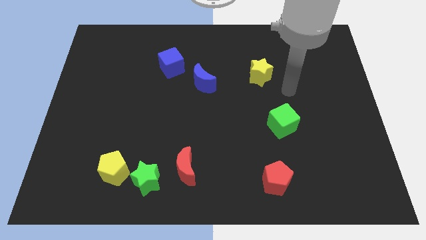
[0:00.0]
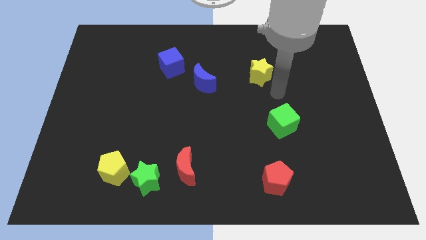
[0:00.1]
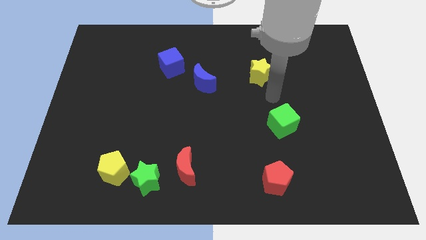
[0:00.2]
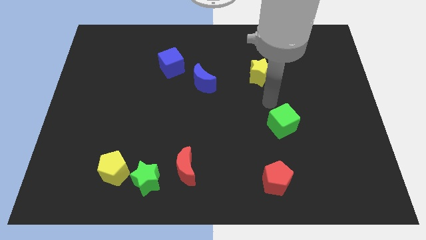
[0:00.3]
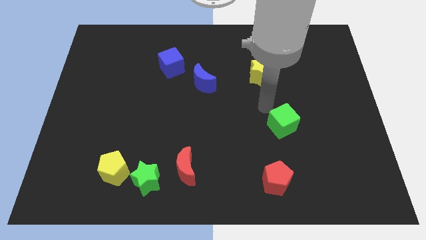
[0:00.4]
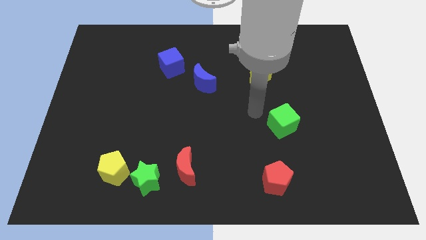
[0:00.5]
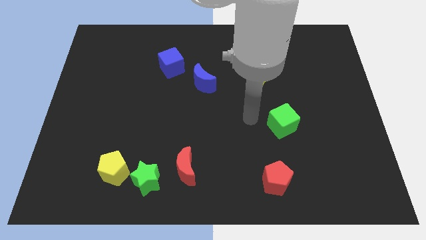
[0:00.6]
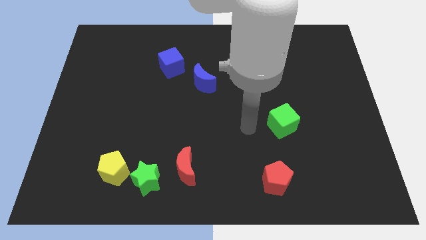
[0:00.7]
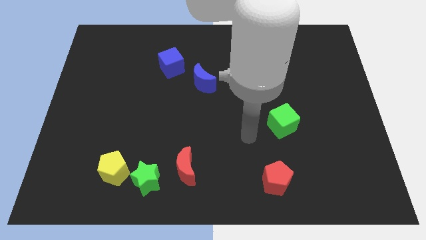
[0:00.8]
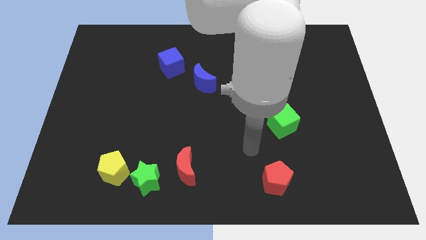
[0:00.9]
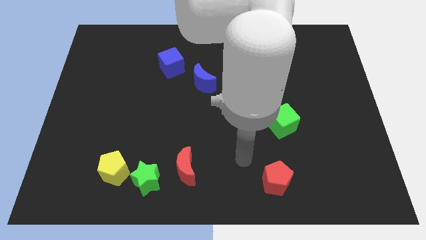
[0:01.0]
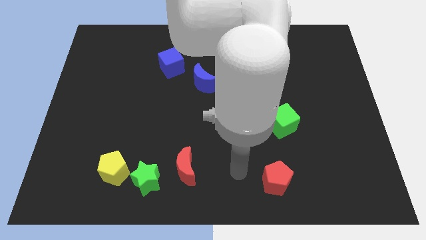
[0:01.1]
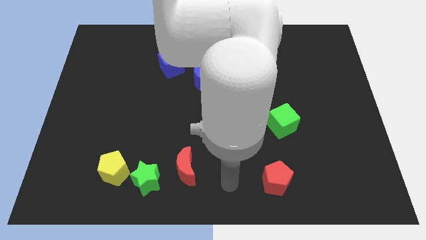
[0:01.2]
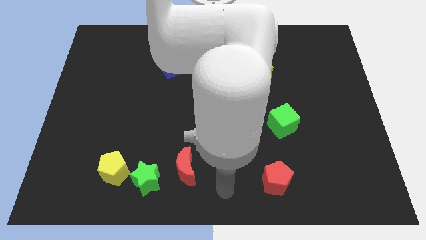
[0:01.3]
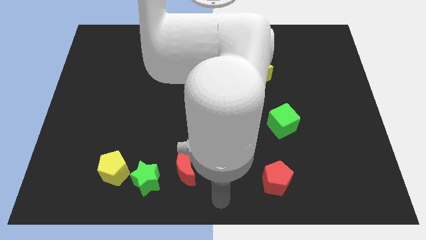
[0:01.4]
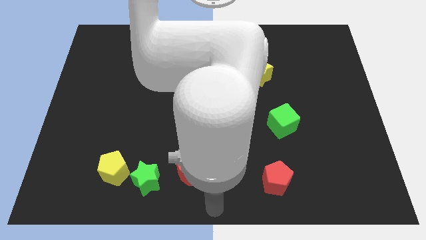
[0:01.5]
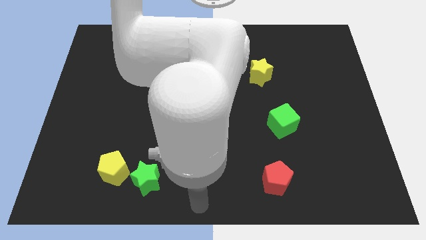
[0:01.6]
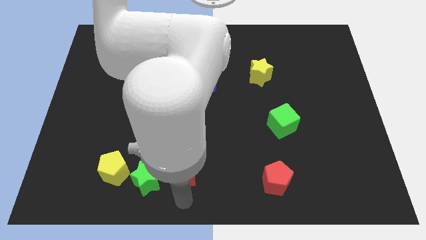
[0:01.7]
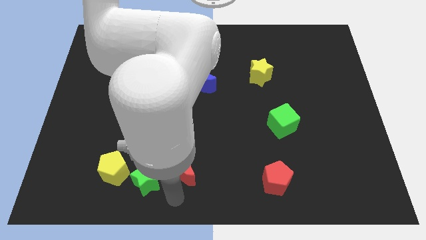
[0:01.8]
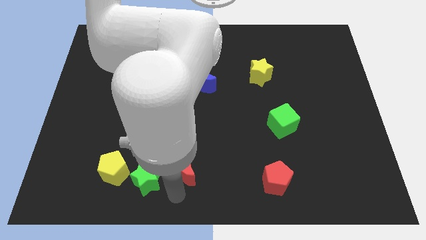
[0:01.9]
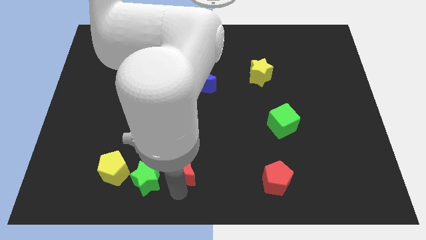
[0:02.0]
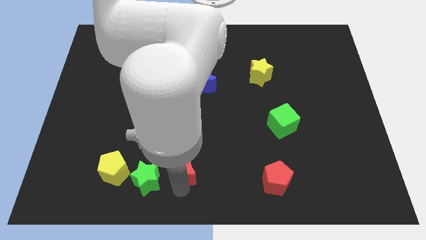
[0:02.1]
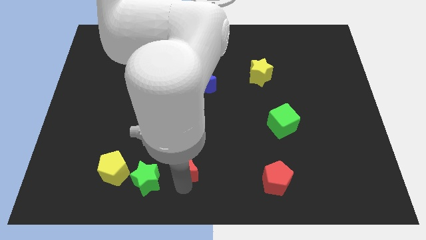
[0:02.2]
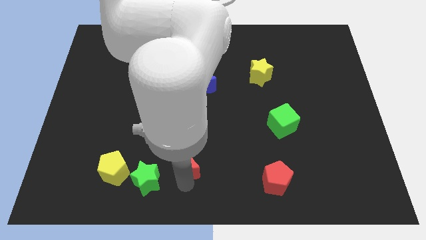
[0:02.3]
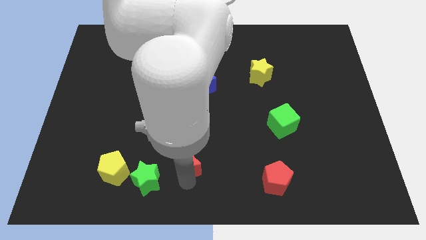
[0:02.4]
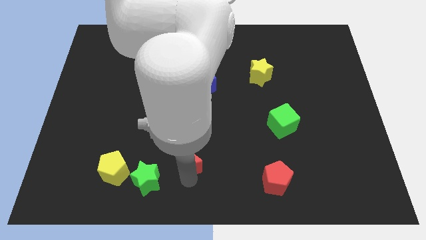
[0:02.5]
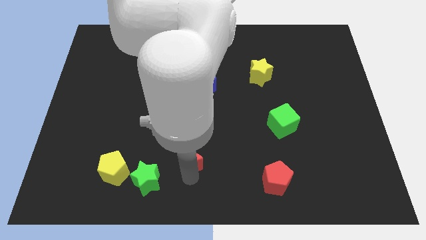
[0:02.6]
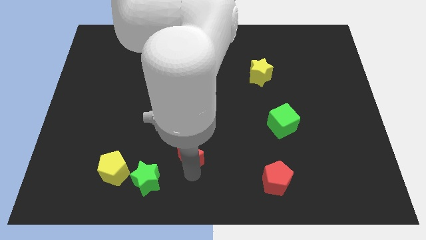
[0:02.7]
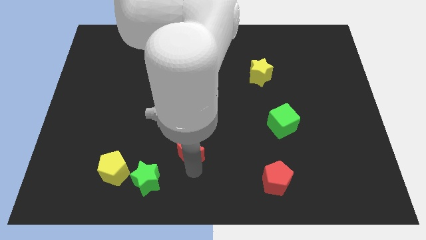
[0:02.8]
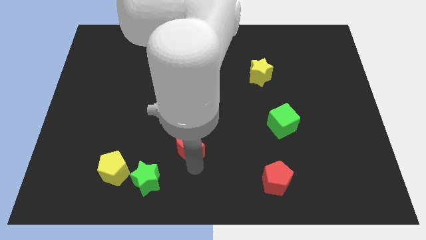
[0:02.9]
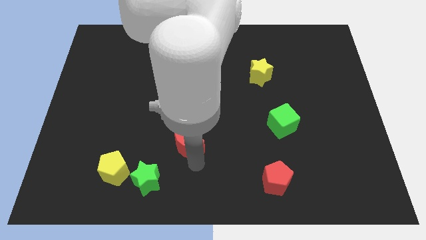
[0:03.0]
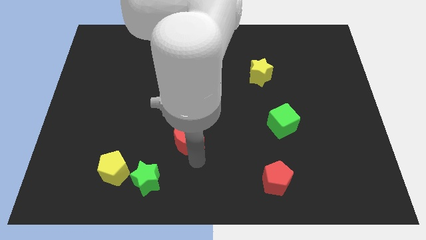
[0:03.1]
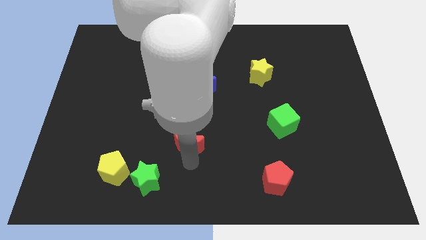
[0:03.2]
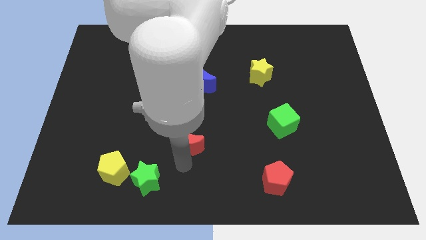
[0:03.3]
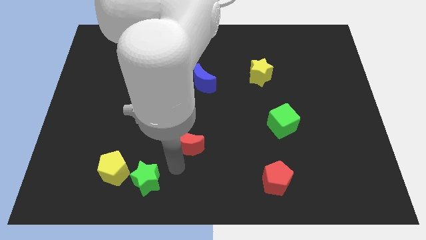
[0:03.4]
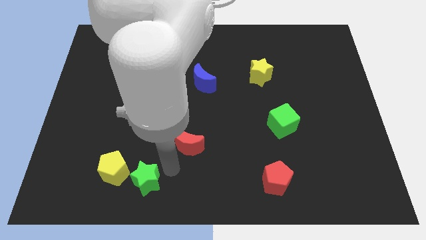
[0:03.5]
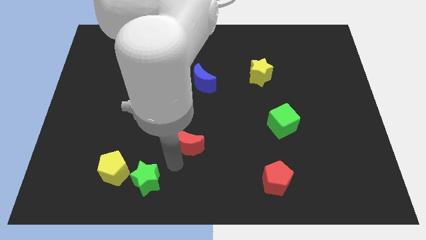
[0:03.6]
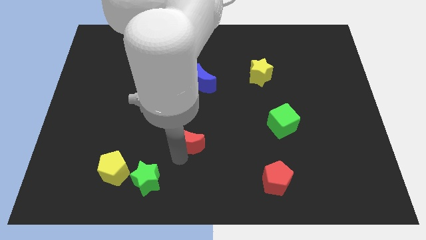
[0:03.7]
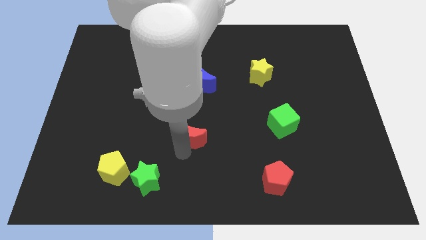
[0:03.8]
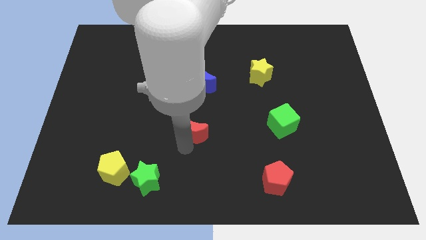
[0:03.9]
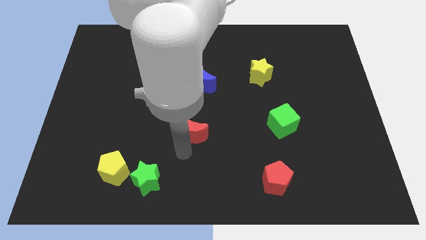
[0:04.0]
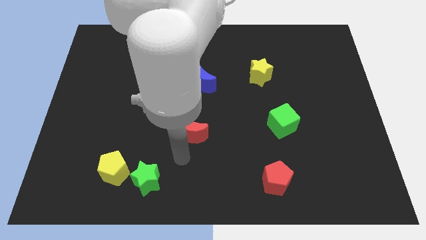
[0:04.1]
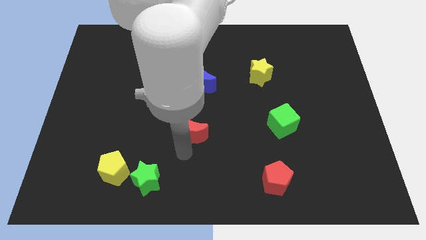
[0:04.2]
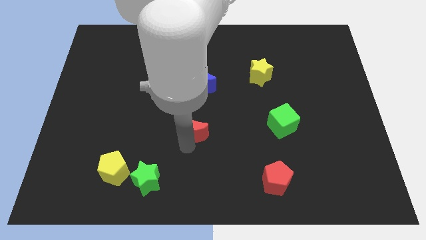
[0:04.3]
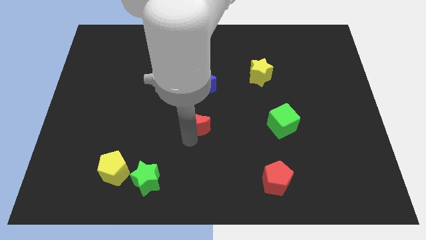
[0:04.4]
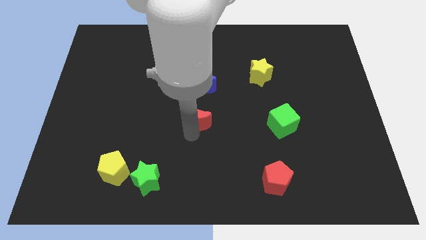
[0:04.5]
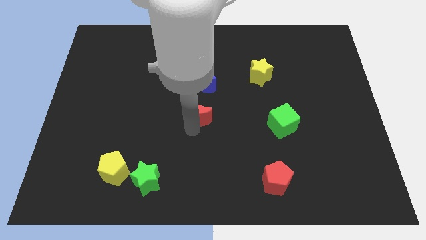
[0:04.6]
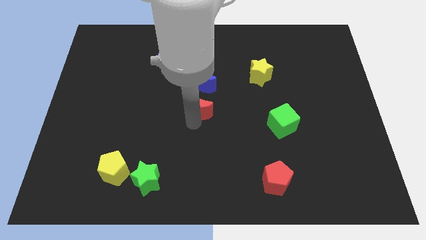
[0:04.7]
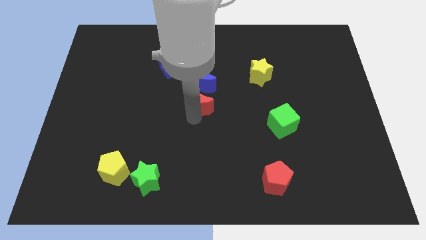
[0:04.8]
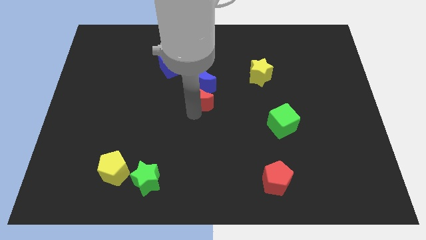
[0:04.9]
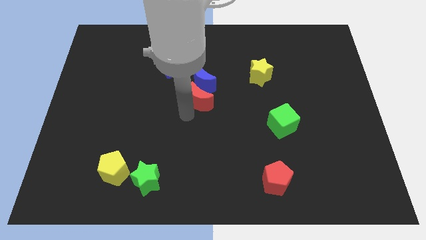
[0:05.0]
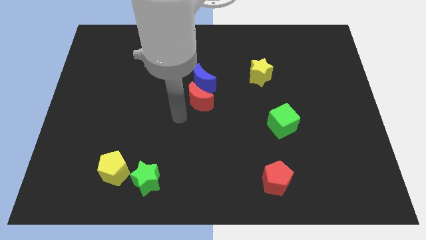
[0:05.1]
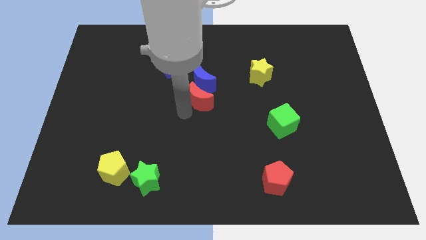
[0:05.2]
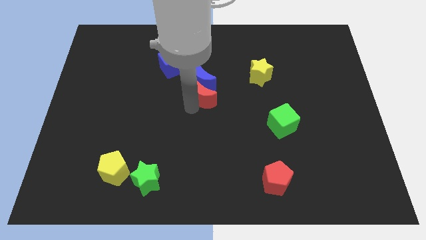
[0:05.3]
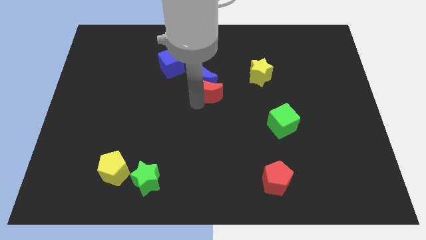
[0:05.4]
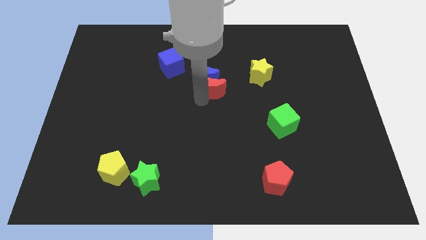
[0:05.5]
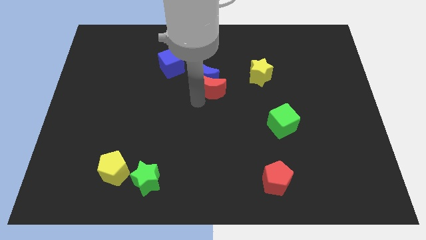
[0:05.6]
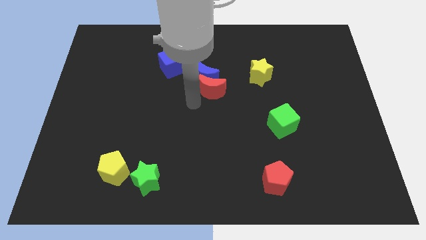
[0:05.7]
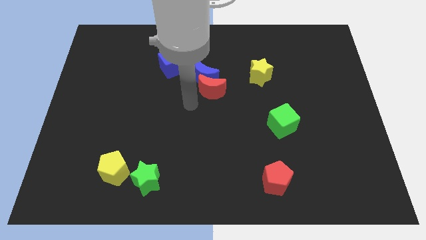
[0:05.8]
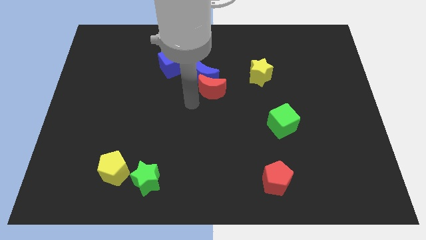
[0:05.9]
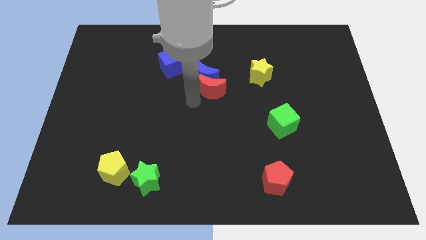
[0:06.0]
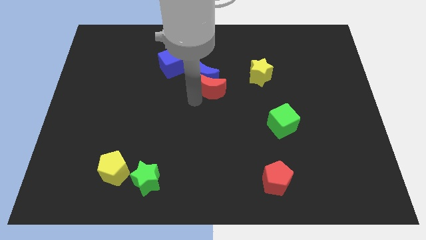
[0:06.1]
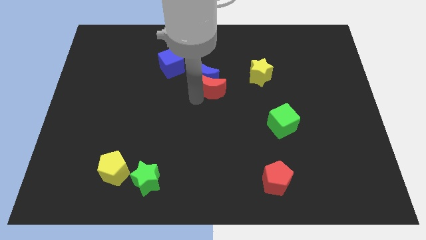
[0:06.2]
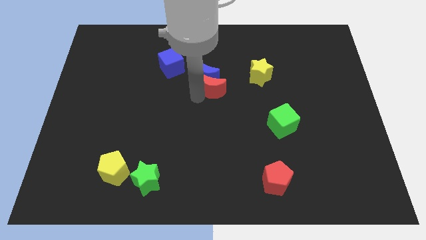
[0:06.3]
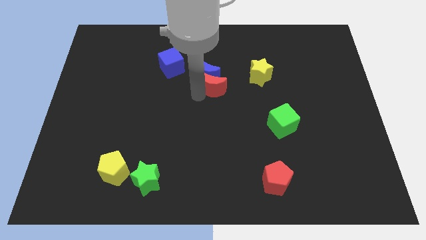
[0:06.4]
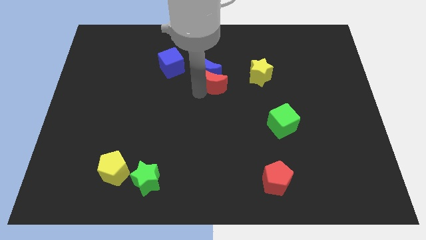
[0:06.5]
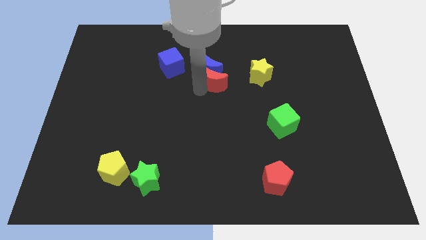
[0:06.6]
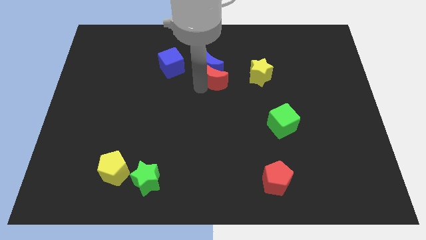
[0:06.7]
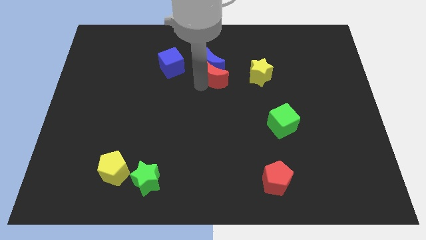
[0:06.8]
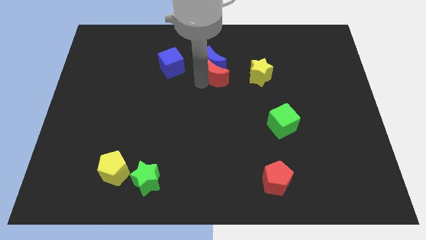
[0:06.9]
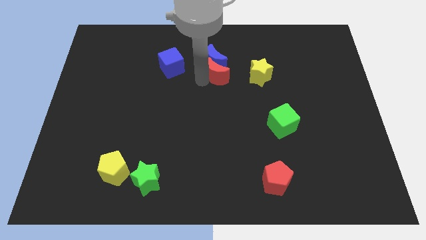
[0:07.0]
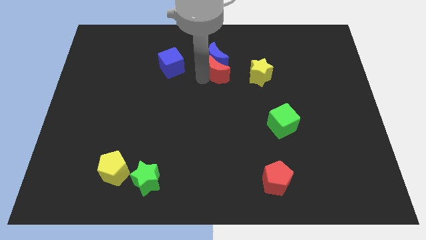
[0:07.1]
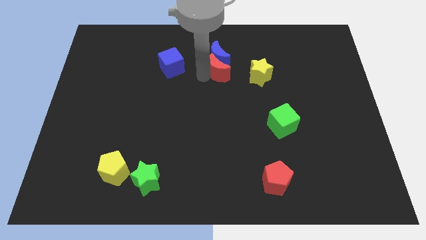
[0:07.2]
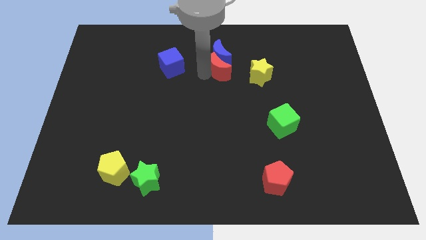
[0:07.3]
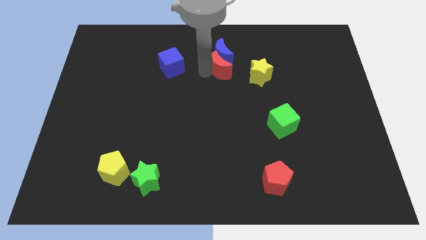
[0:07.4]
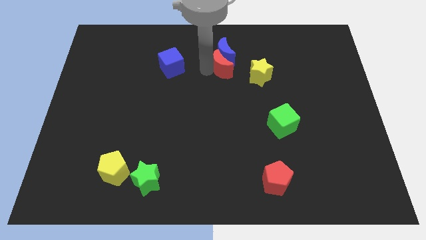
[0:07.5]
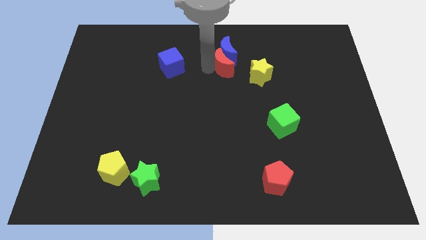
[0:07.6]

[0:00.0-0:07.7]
slide the red moon diagonally up and to the left of the yellow star

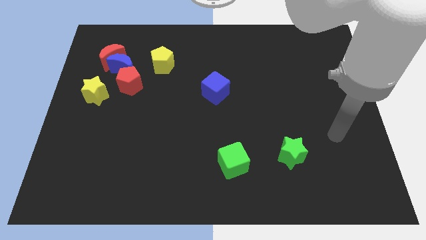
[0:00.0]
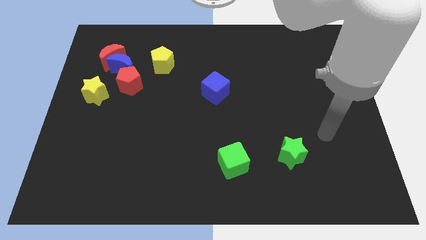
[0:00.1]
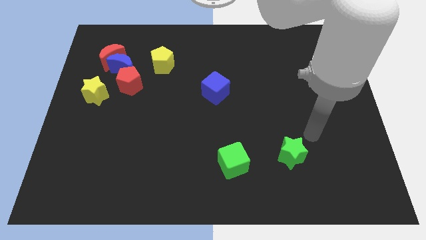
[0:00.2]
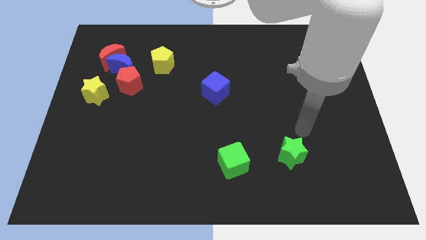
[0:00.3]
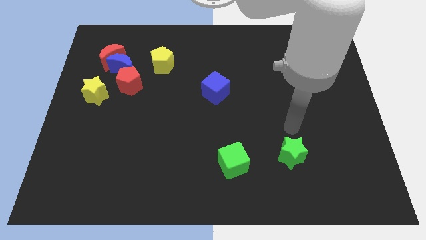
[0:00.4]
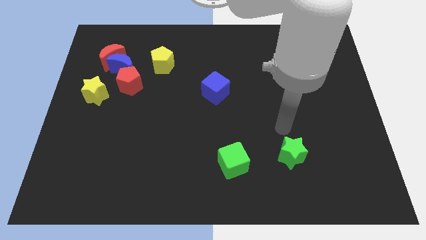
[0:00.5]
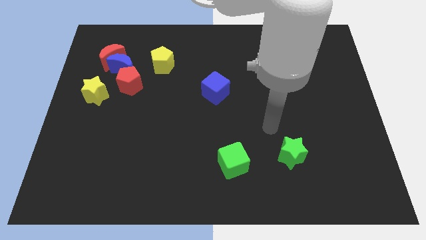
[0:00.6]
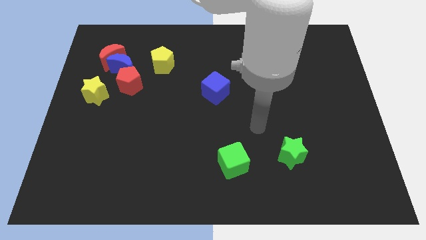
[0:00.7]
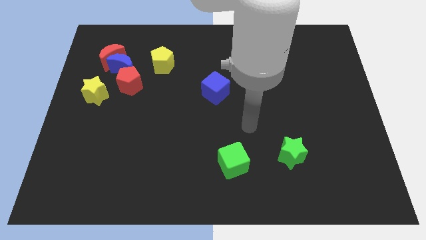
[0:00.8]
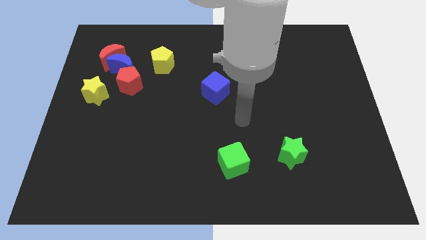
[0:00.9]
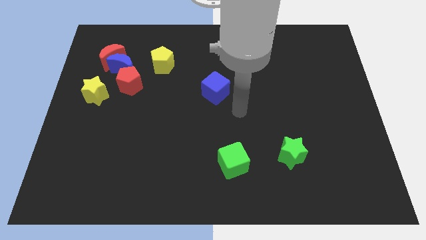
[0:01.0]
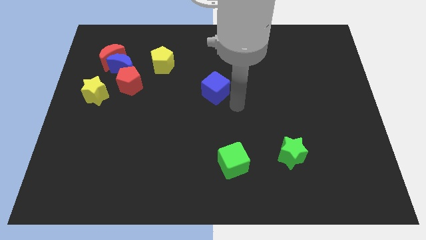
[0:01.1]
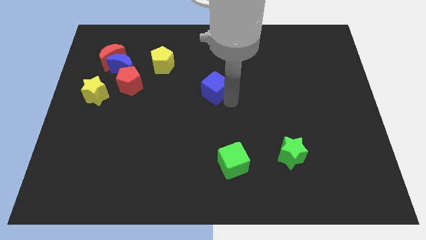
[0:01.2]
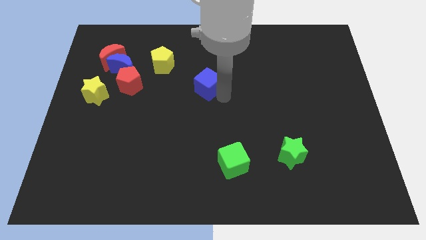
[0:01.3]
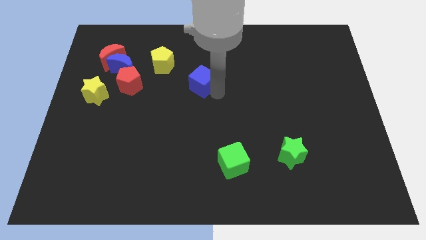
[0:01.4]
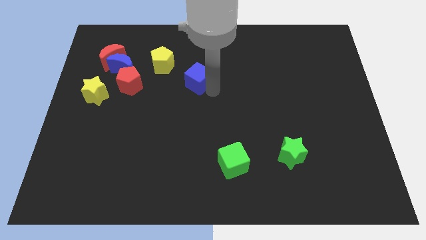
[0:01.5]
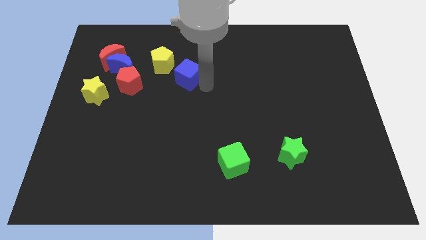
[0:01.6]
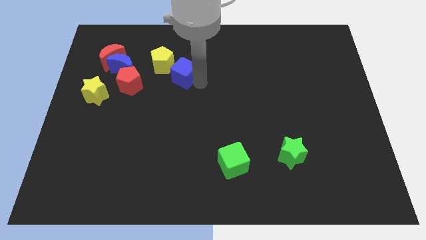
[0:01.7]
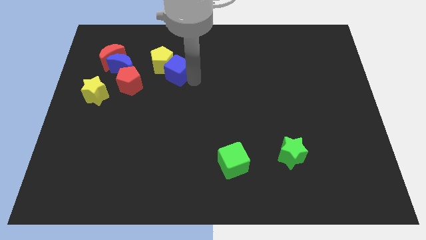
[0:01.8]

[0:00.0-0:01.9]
slide the blue cube right of the blue moon
